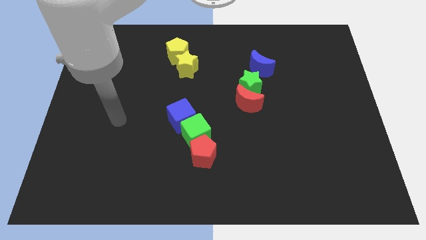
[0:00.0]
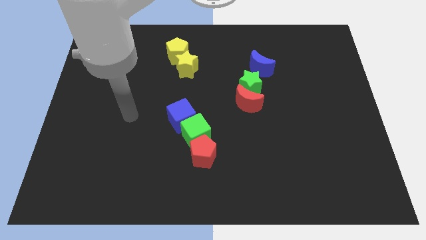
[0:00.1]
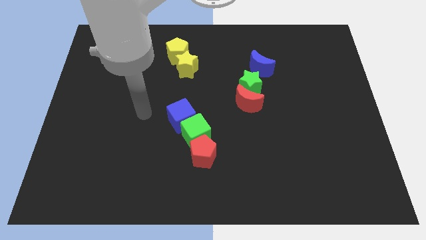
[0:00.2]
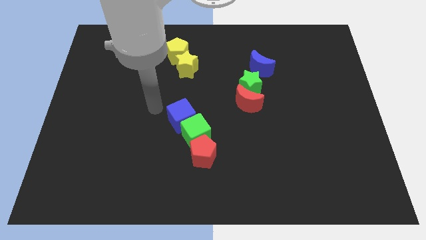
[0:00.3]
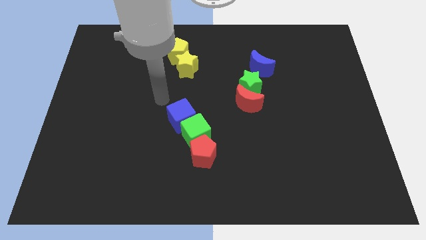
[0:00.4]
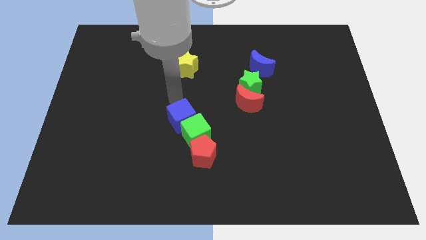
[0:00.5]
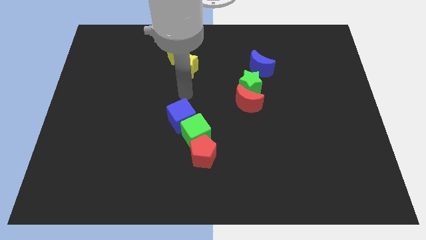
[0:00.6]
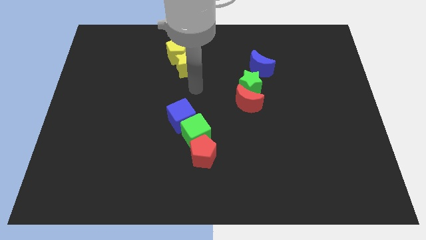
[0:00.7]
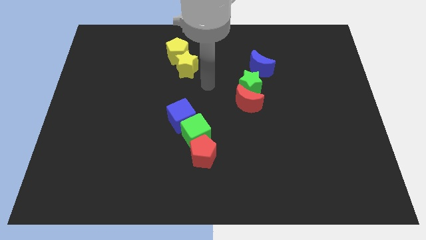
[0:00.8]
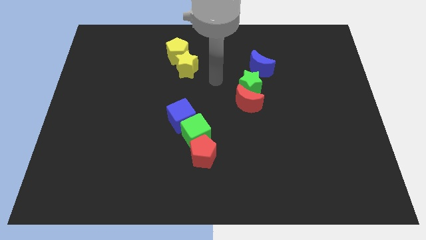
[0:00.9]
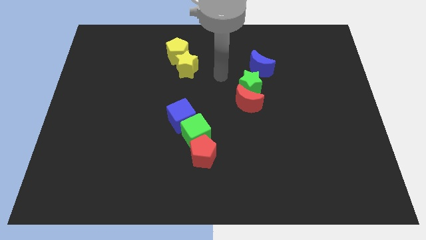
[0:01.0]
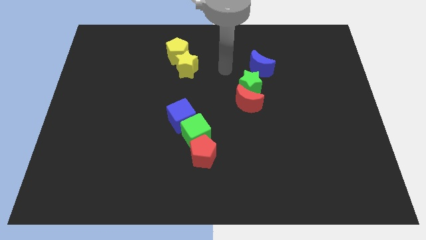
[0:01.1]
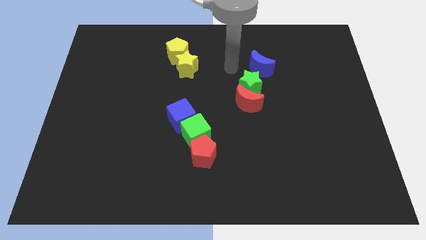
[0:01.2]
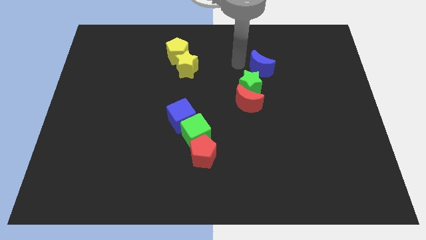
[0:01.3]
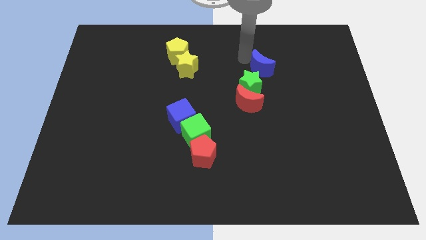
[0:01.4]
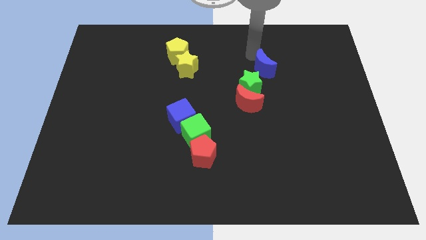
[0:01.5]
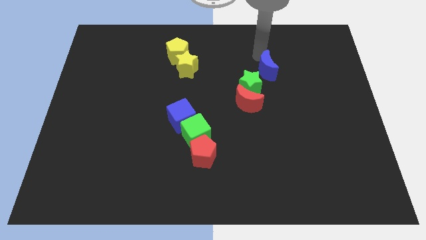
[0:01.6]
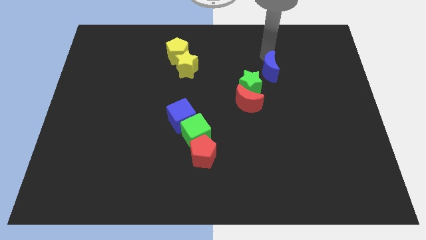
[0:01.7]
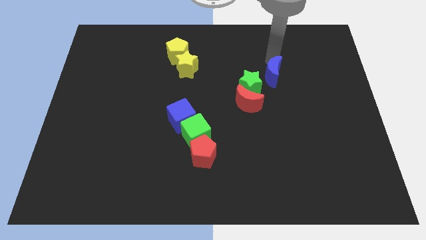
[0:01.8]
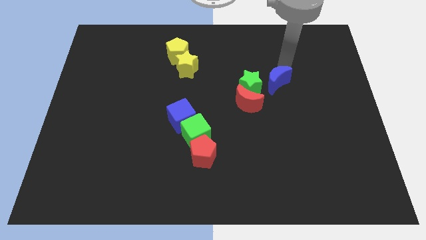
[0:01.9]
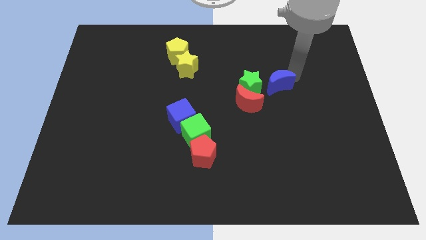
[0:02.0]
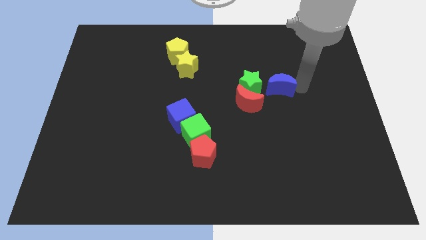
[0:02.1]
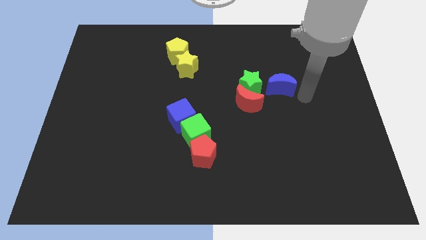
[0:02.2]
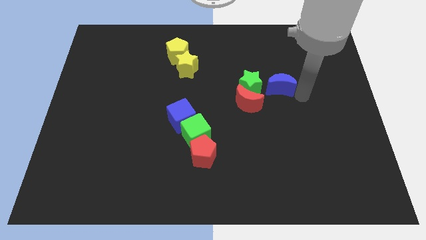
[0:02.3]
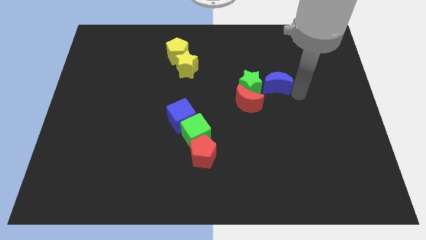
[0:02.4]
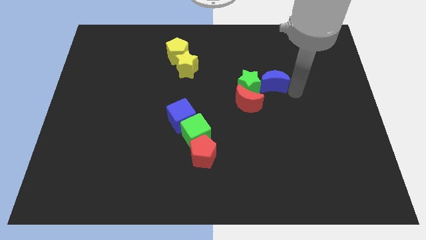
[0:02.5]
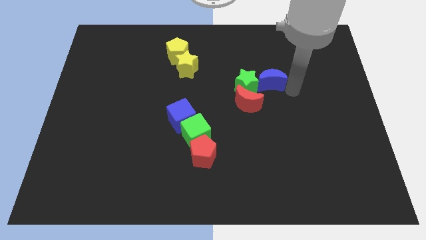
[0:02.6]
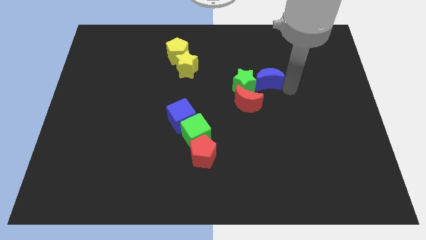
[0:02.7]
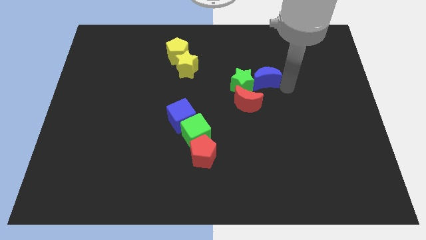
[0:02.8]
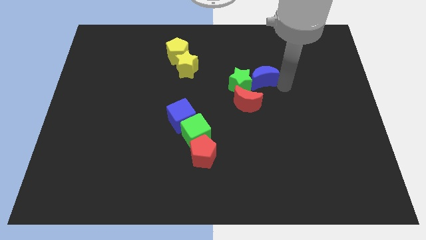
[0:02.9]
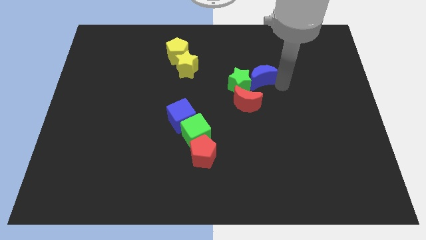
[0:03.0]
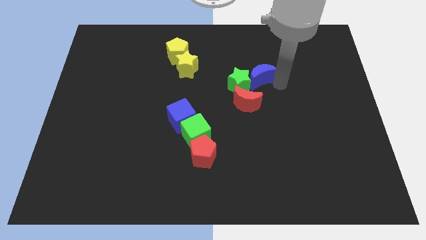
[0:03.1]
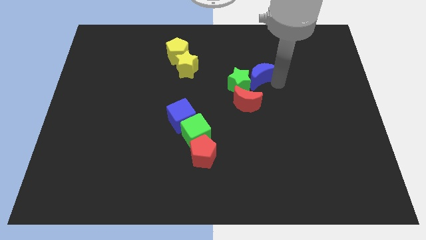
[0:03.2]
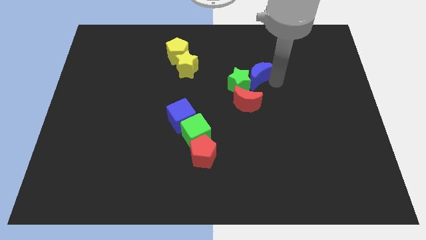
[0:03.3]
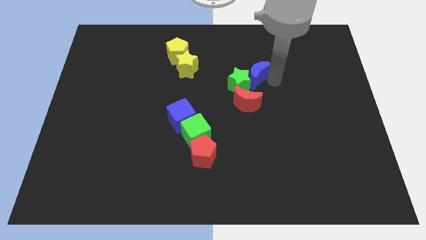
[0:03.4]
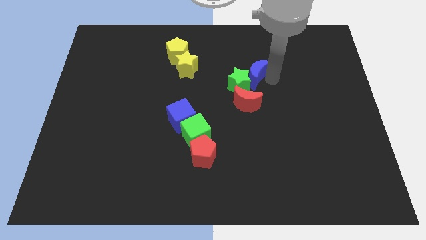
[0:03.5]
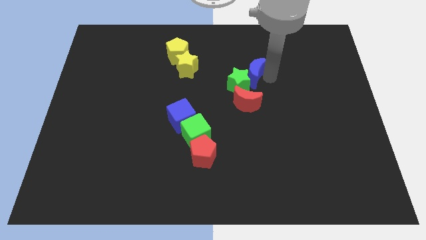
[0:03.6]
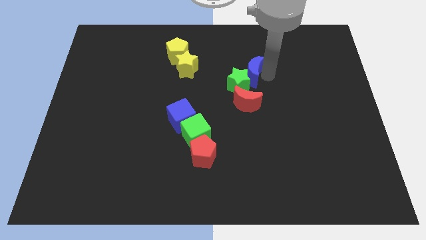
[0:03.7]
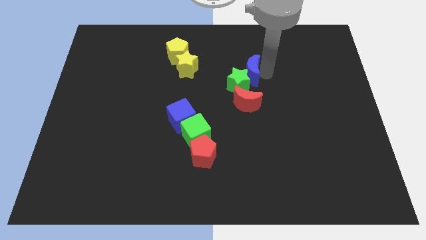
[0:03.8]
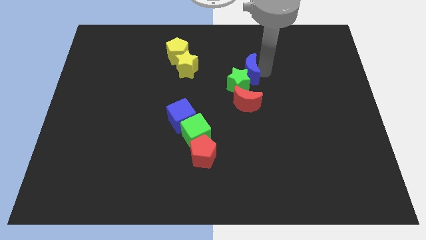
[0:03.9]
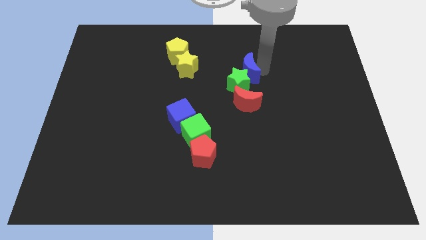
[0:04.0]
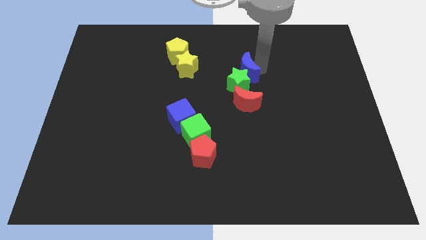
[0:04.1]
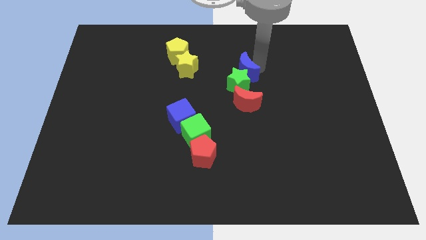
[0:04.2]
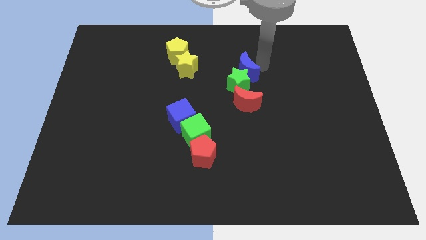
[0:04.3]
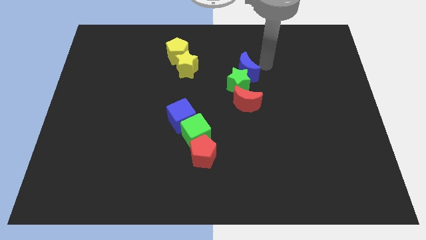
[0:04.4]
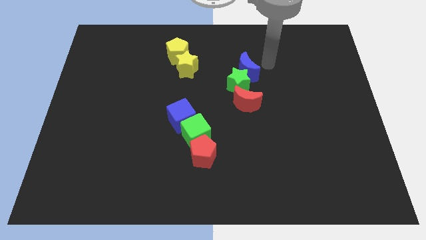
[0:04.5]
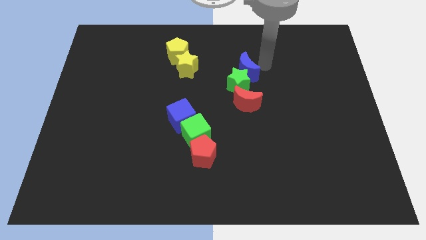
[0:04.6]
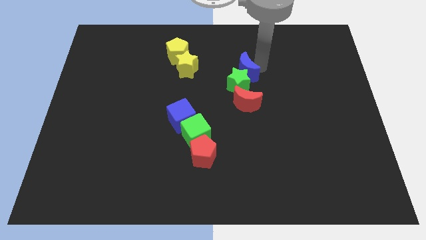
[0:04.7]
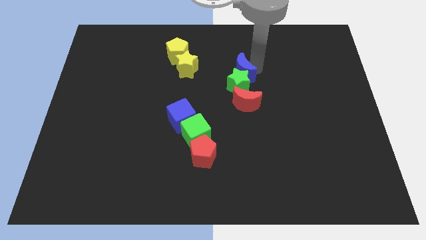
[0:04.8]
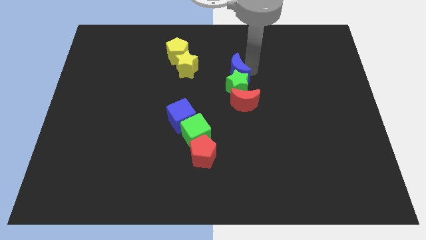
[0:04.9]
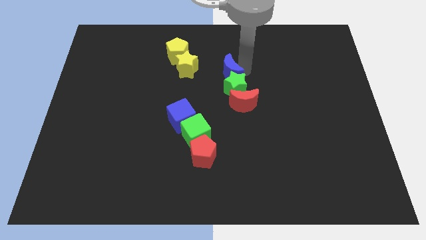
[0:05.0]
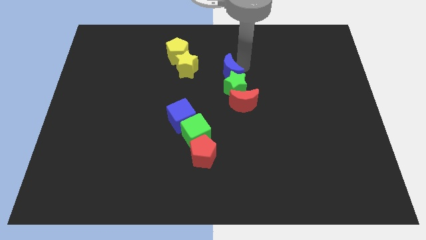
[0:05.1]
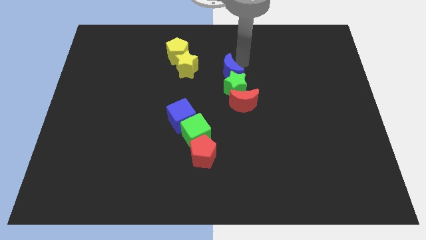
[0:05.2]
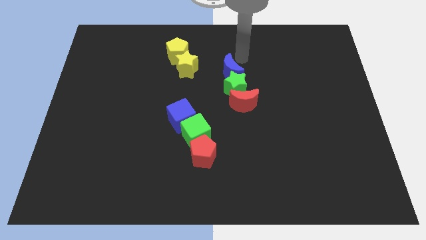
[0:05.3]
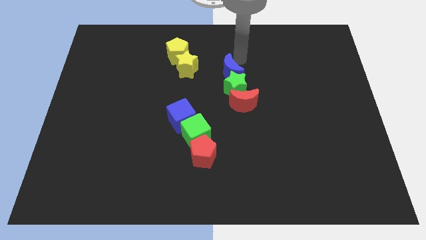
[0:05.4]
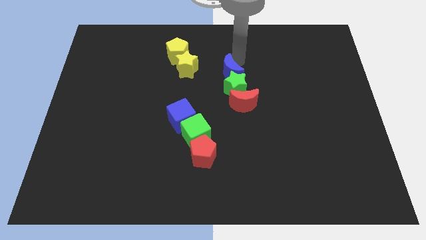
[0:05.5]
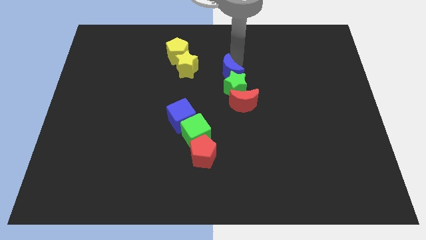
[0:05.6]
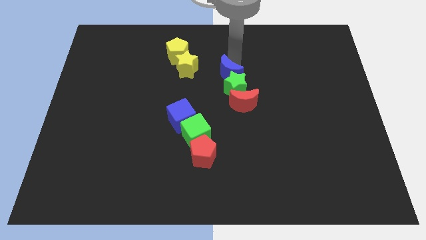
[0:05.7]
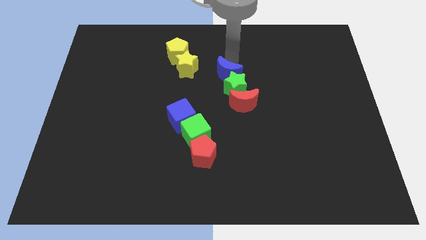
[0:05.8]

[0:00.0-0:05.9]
slide the blue moon a little bit downwards and then to the left

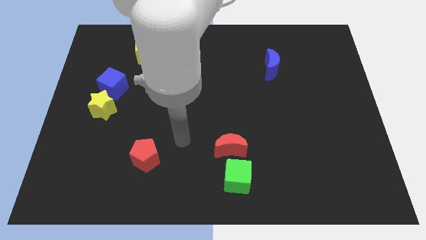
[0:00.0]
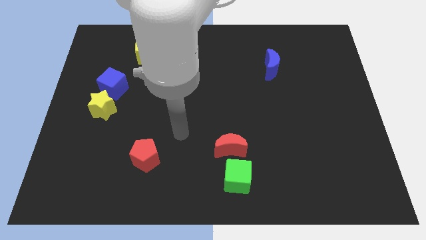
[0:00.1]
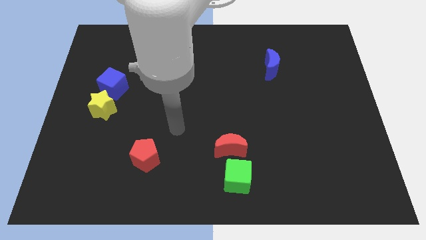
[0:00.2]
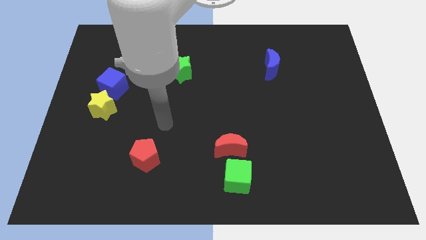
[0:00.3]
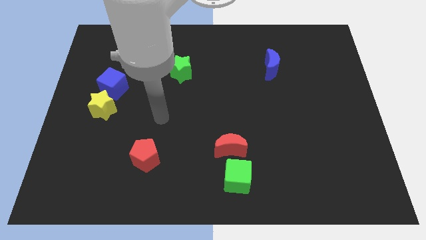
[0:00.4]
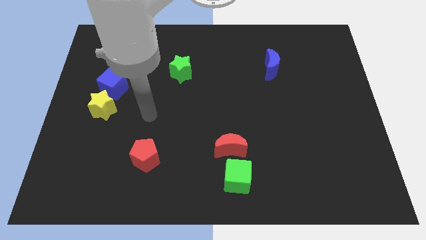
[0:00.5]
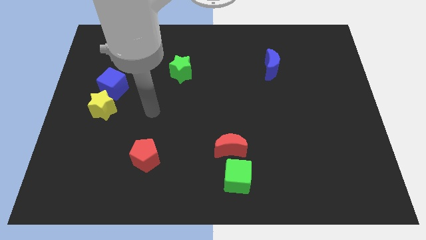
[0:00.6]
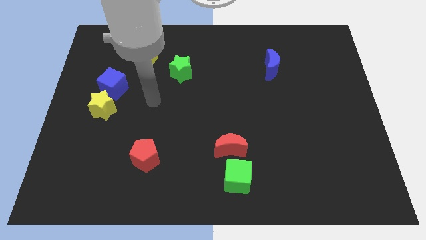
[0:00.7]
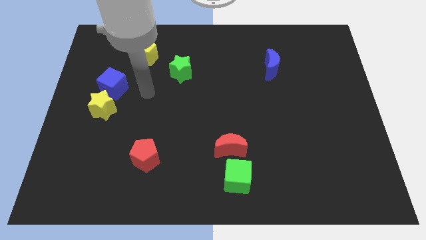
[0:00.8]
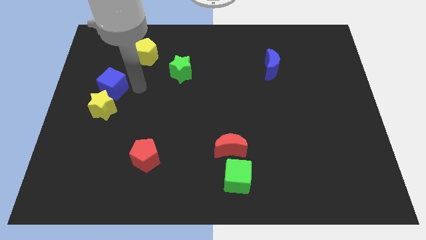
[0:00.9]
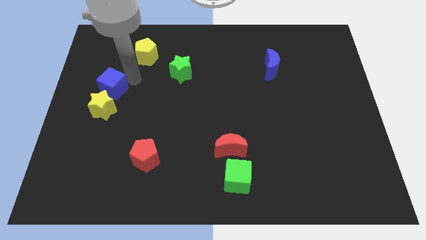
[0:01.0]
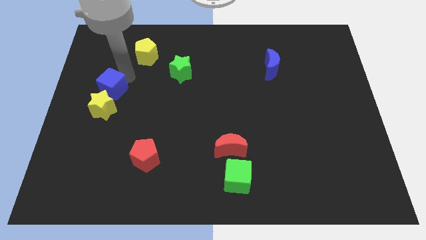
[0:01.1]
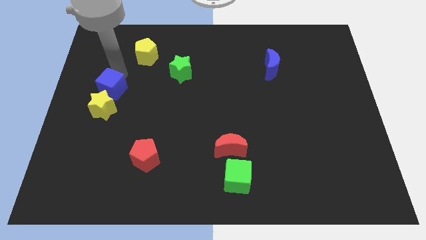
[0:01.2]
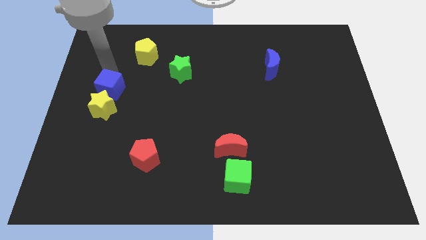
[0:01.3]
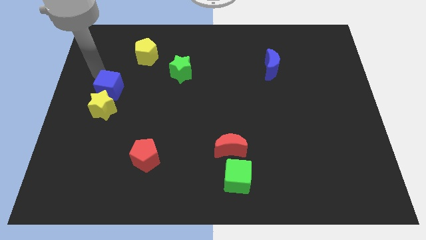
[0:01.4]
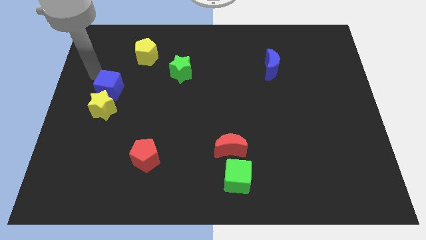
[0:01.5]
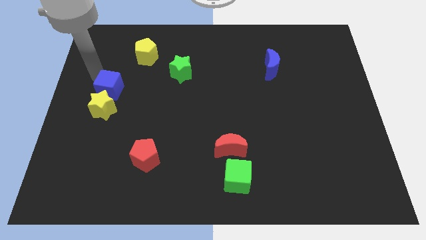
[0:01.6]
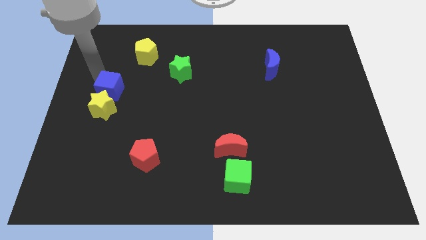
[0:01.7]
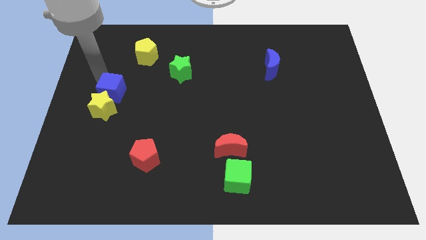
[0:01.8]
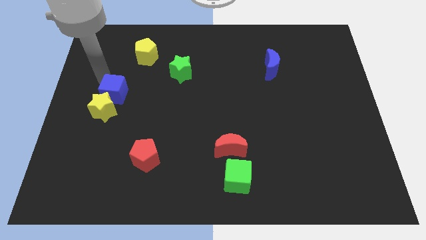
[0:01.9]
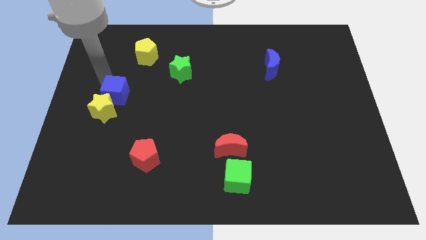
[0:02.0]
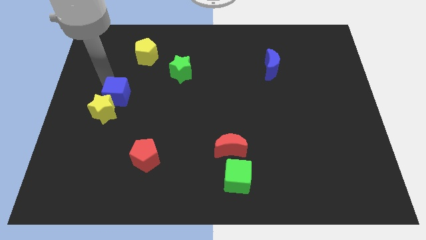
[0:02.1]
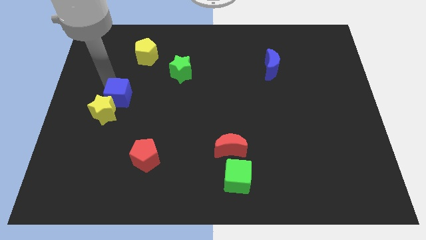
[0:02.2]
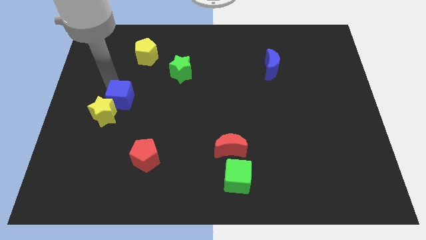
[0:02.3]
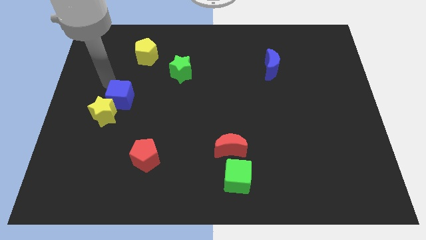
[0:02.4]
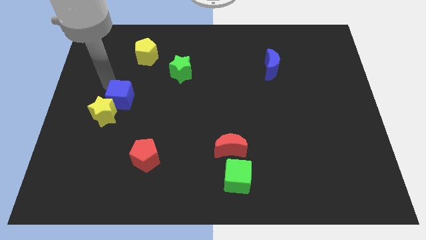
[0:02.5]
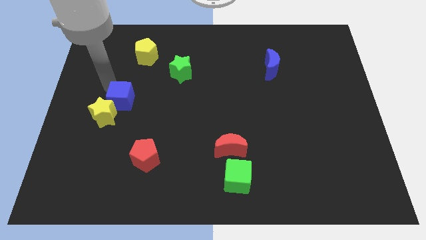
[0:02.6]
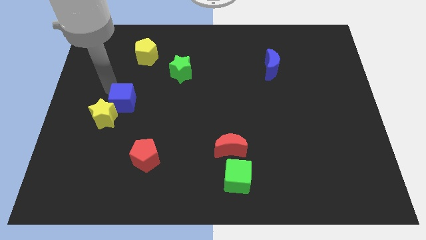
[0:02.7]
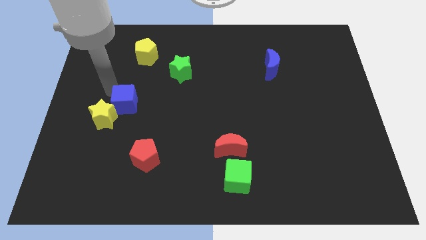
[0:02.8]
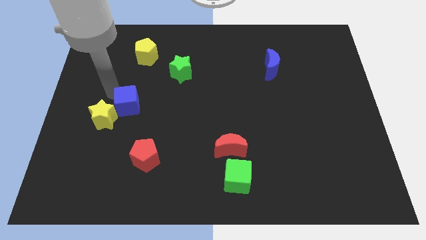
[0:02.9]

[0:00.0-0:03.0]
move the blue cube slightly downwards and to the right
